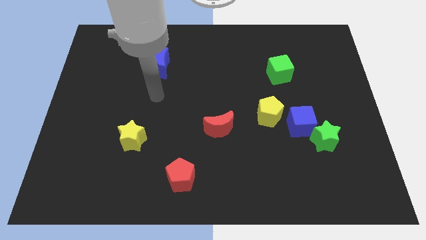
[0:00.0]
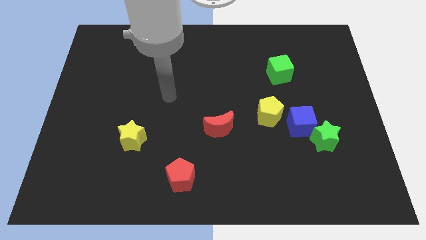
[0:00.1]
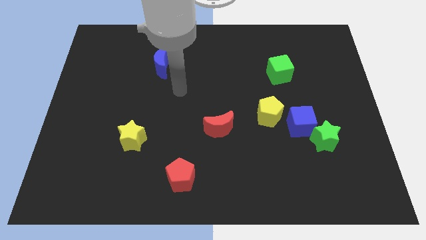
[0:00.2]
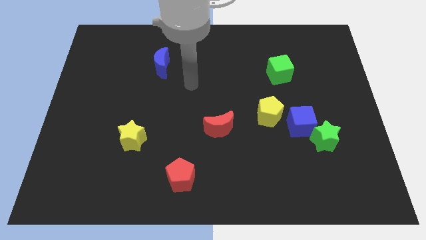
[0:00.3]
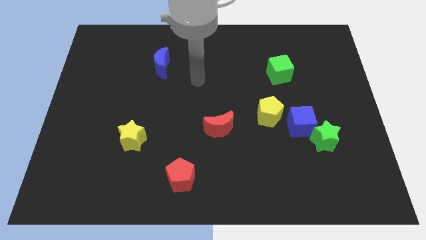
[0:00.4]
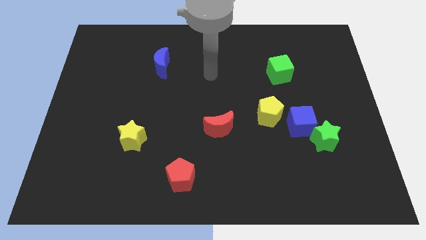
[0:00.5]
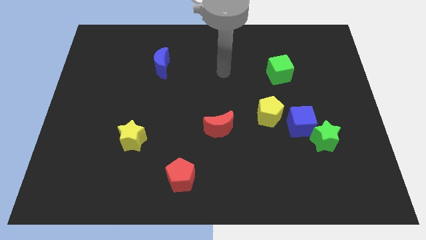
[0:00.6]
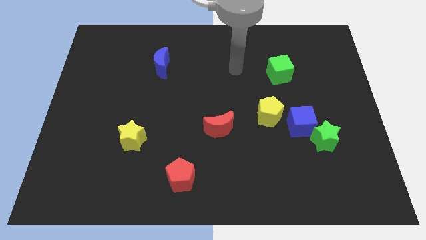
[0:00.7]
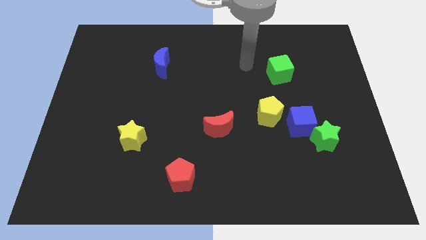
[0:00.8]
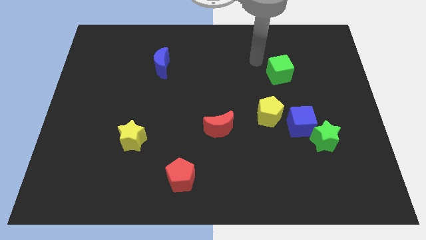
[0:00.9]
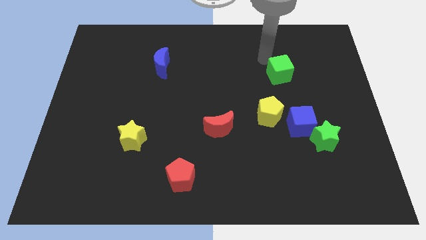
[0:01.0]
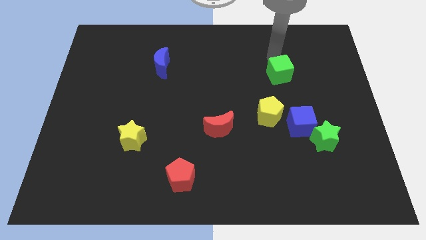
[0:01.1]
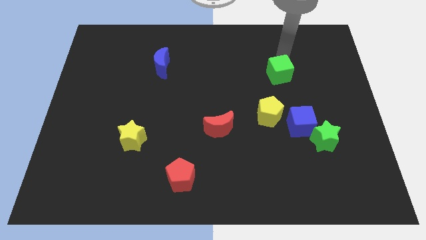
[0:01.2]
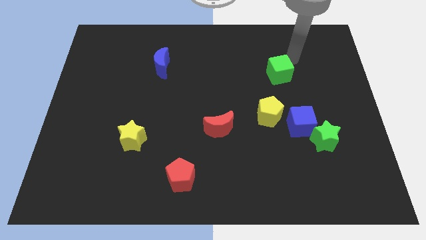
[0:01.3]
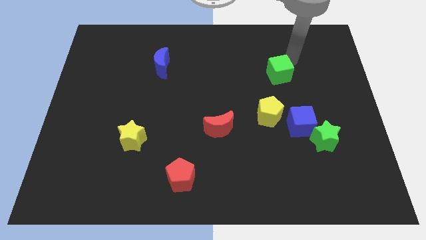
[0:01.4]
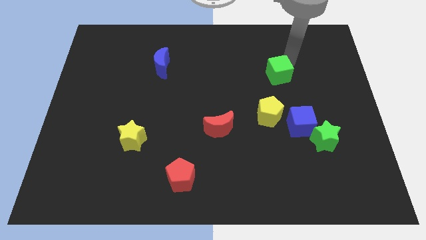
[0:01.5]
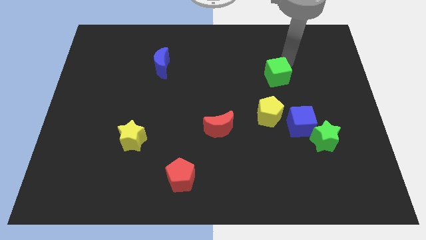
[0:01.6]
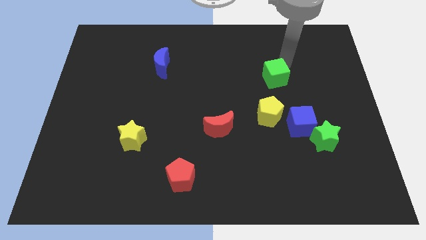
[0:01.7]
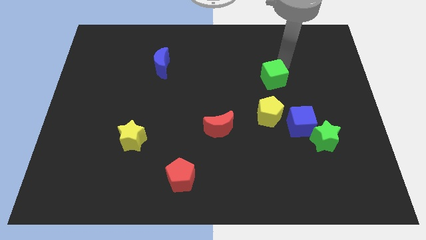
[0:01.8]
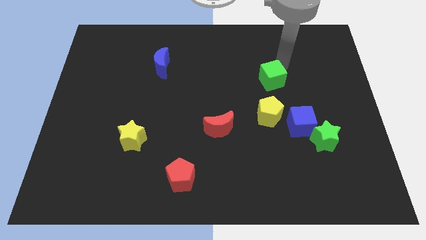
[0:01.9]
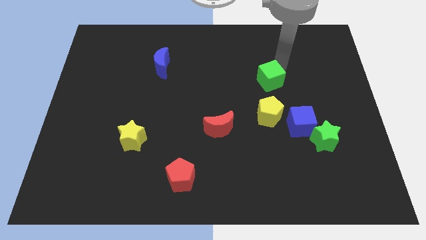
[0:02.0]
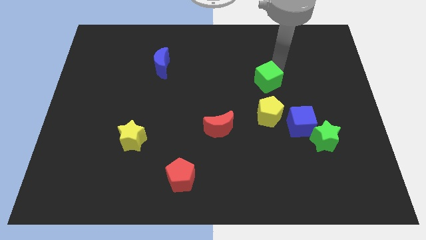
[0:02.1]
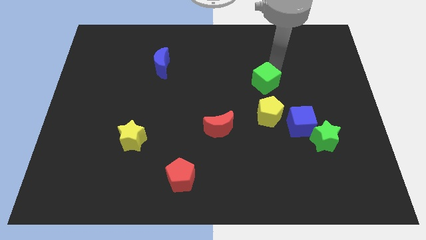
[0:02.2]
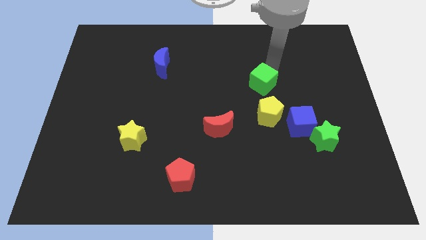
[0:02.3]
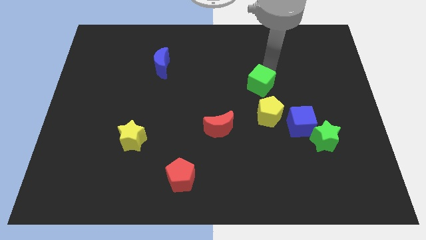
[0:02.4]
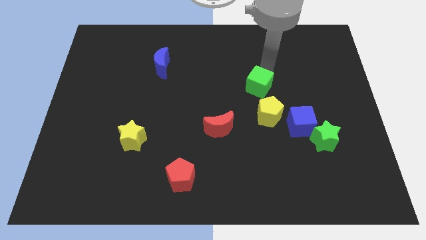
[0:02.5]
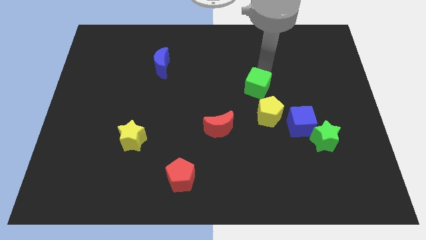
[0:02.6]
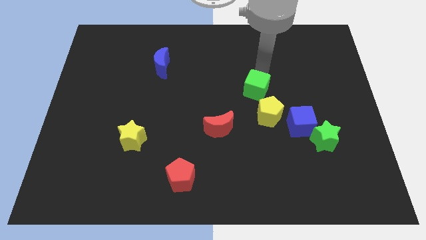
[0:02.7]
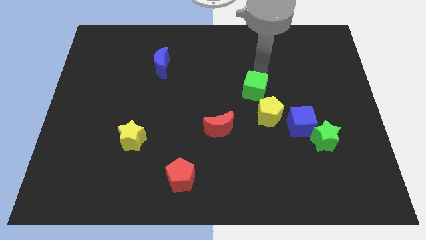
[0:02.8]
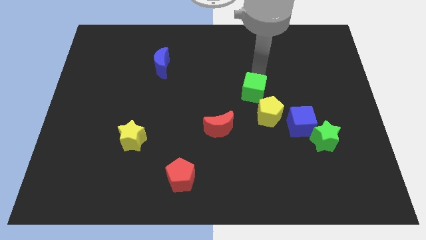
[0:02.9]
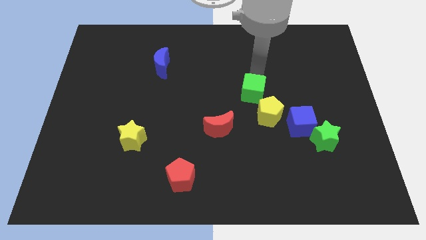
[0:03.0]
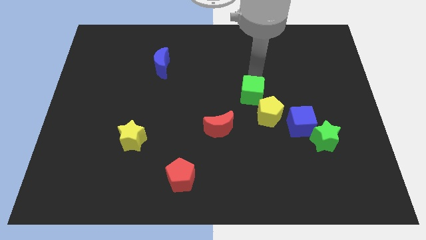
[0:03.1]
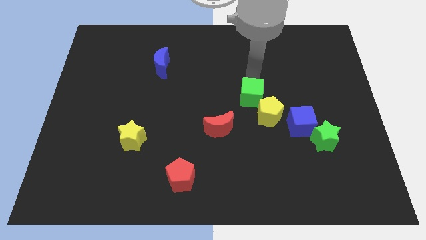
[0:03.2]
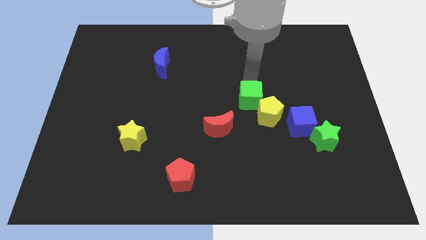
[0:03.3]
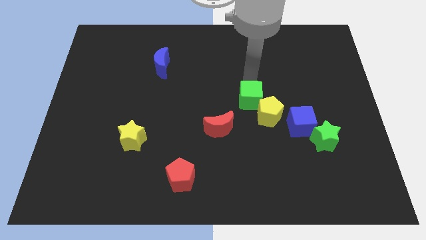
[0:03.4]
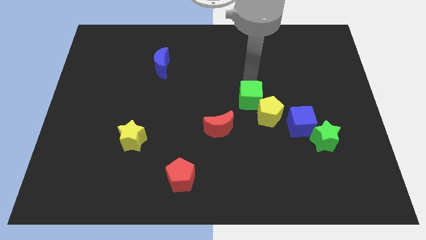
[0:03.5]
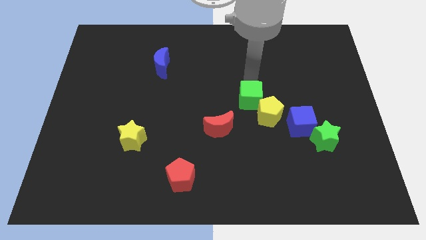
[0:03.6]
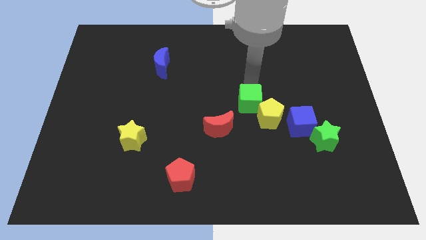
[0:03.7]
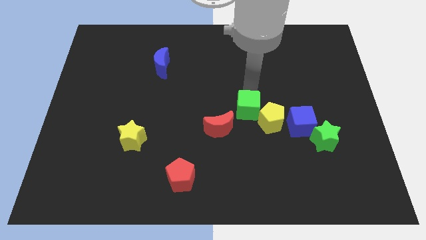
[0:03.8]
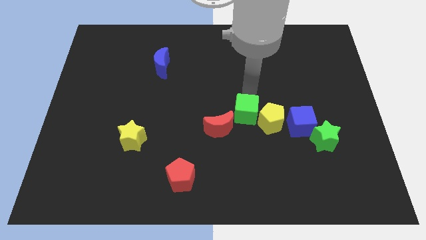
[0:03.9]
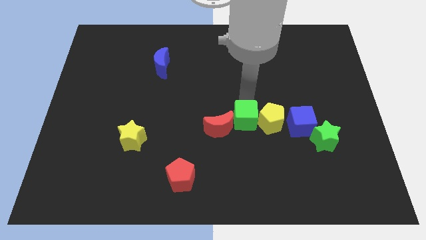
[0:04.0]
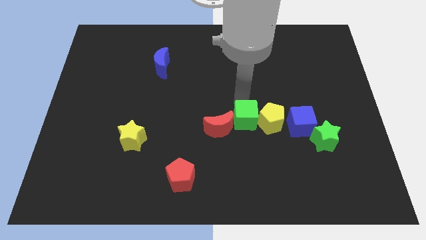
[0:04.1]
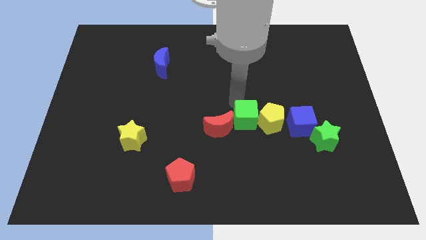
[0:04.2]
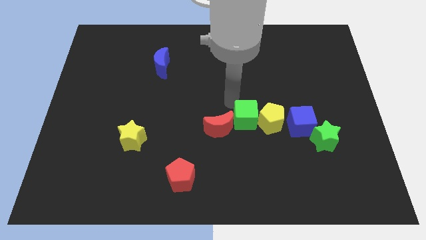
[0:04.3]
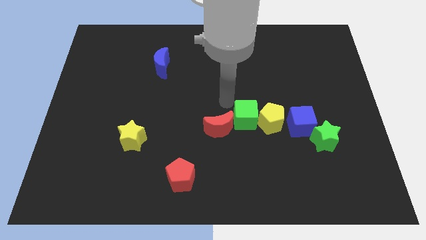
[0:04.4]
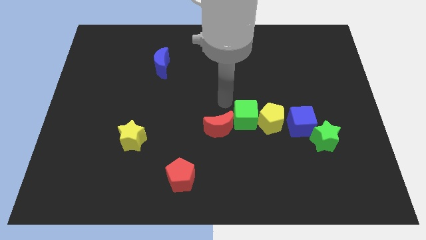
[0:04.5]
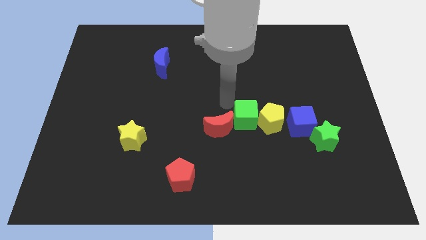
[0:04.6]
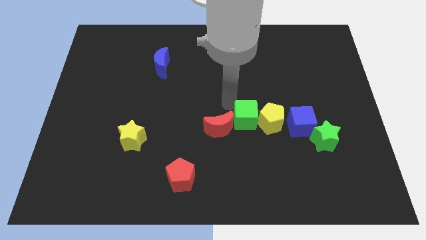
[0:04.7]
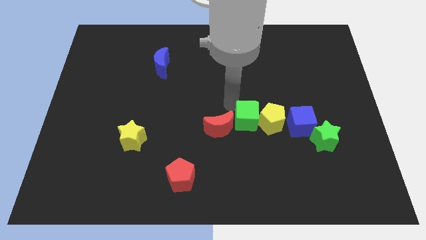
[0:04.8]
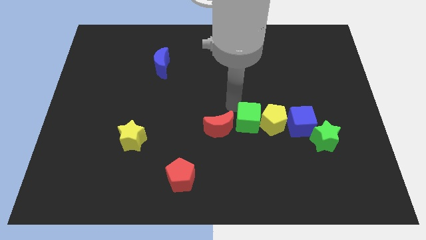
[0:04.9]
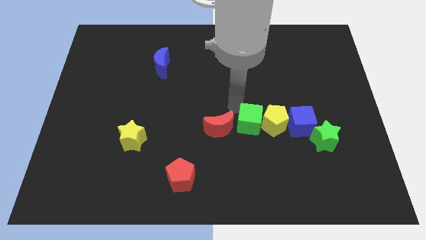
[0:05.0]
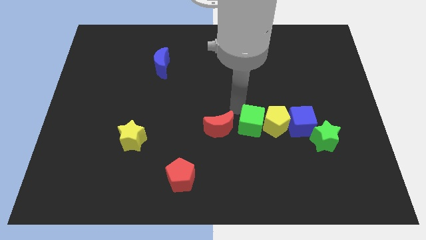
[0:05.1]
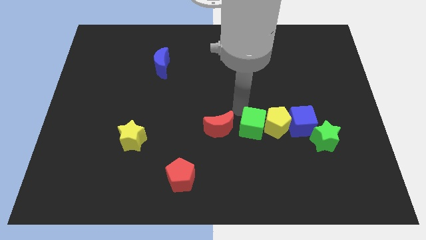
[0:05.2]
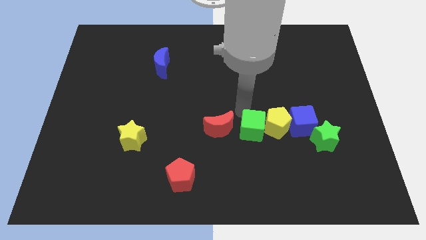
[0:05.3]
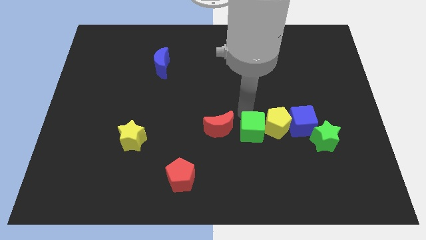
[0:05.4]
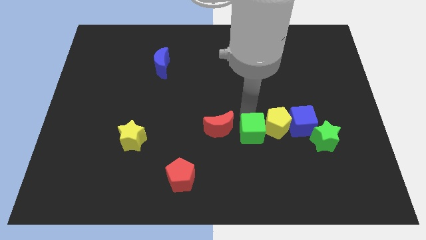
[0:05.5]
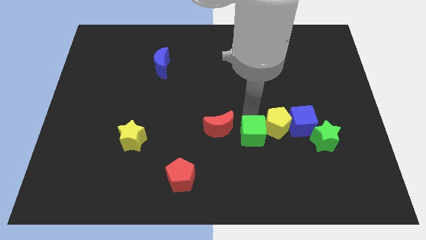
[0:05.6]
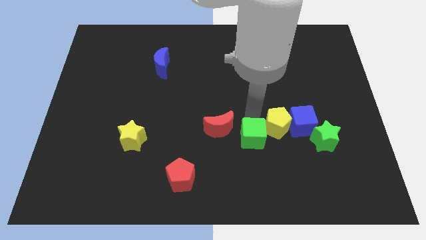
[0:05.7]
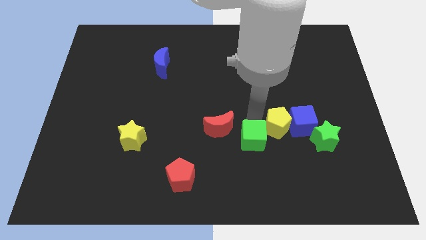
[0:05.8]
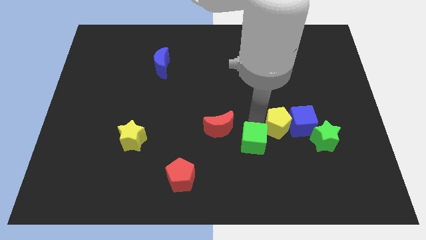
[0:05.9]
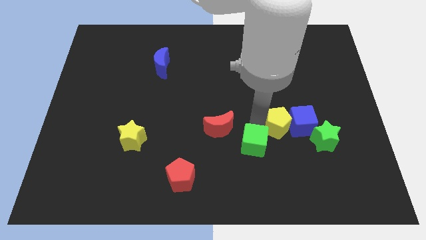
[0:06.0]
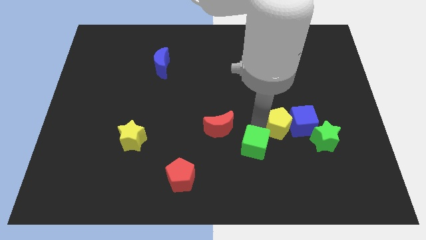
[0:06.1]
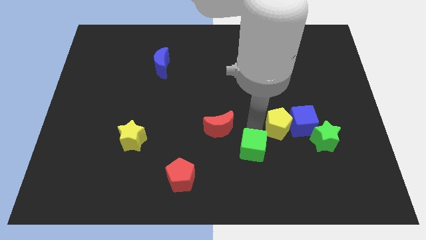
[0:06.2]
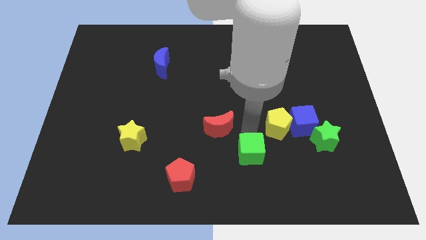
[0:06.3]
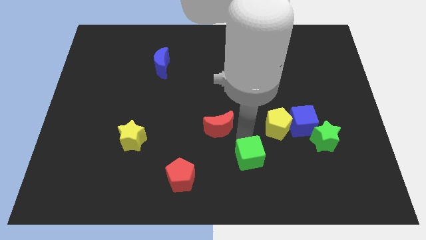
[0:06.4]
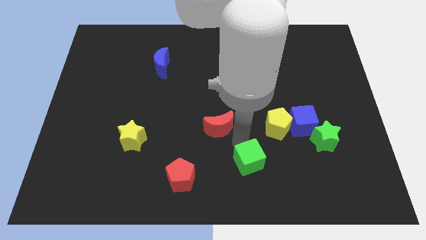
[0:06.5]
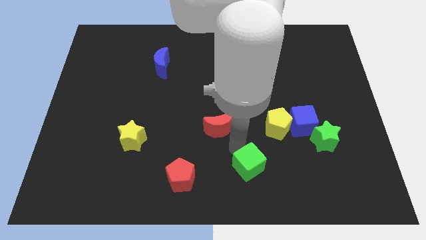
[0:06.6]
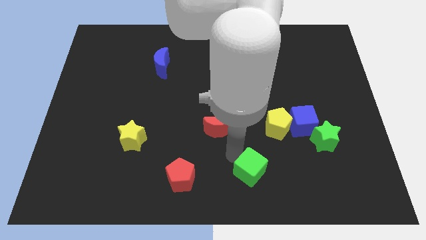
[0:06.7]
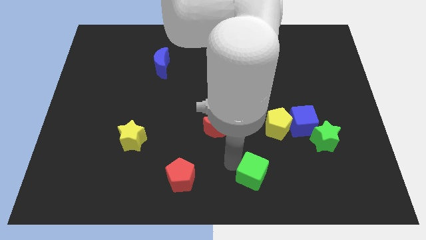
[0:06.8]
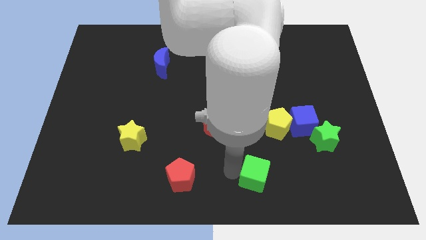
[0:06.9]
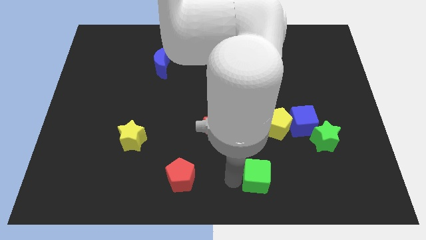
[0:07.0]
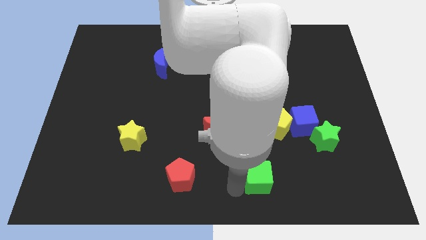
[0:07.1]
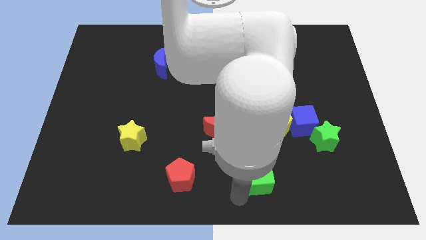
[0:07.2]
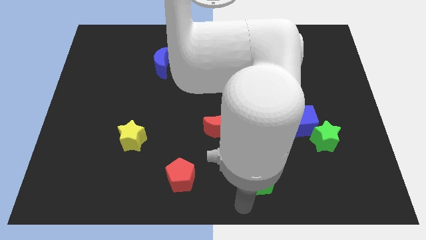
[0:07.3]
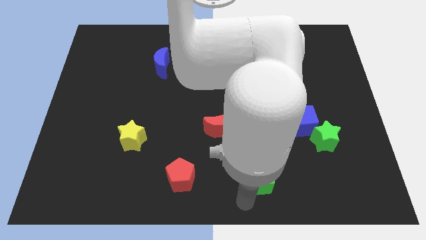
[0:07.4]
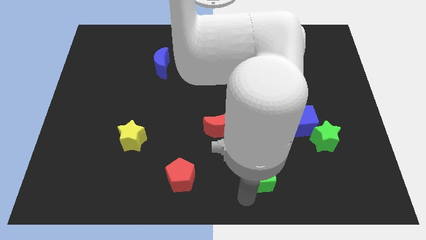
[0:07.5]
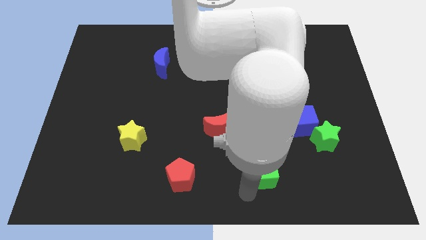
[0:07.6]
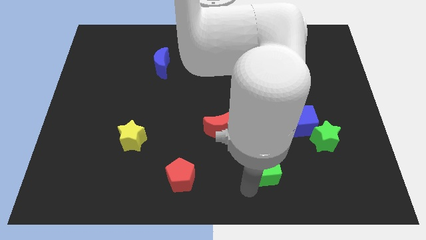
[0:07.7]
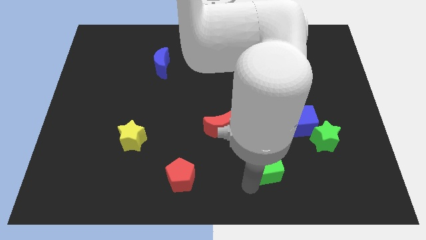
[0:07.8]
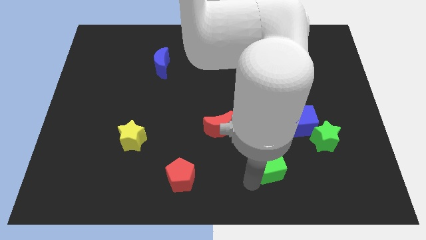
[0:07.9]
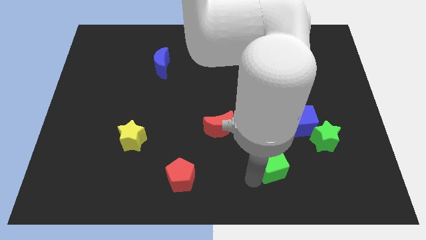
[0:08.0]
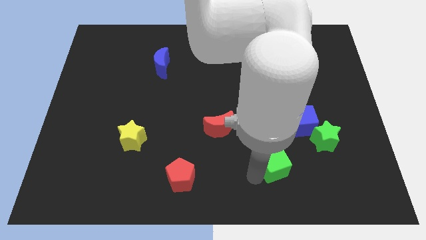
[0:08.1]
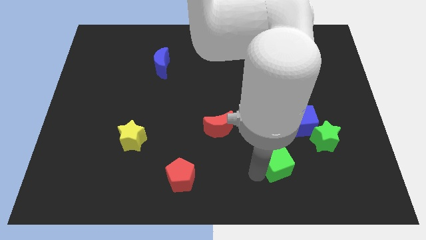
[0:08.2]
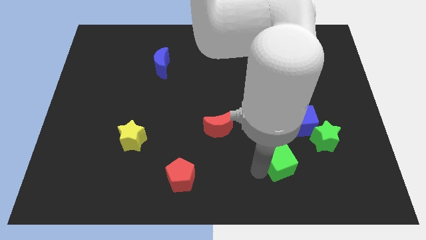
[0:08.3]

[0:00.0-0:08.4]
put the green cube to the bottom left side of the green star
